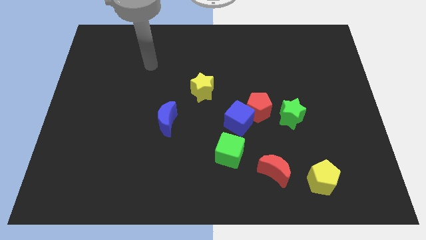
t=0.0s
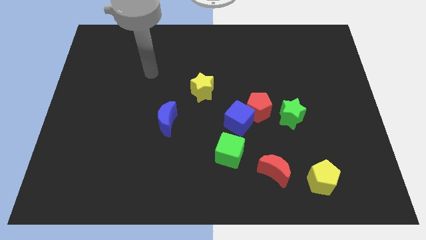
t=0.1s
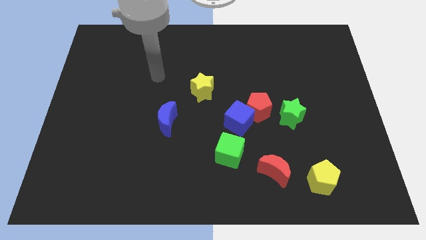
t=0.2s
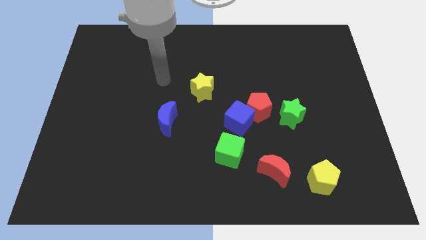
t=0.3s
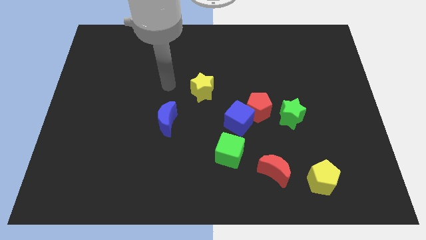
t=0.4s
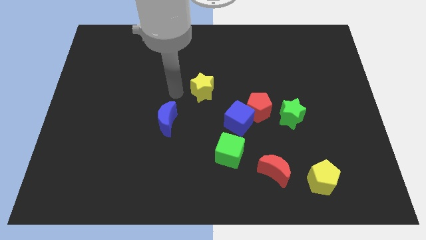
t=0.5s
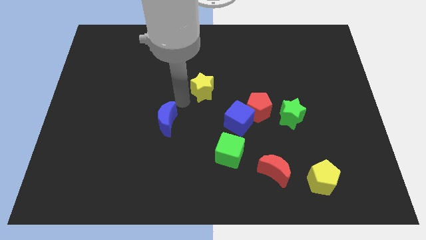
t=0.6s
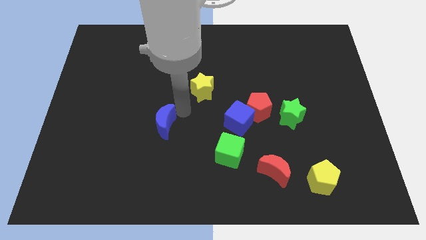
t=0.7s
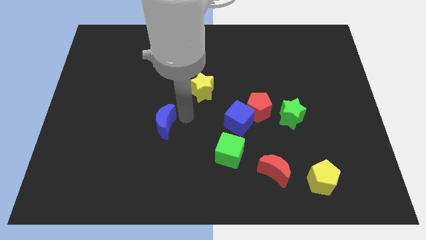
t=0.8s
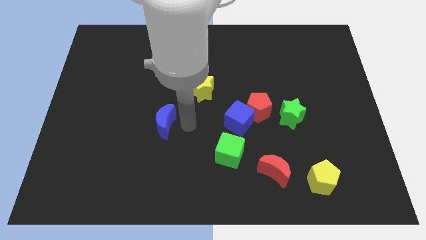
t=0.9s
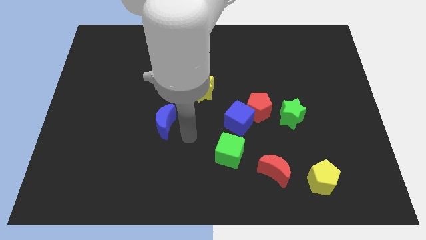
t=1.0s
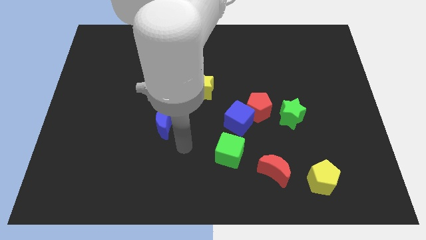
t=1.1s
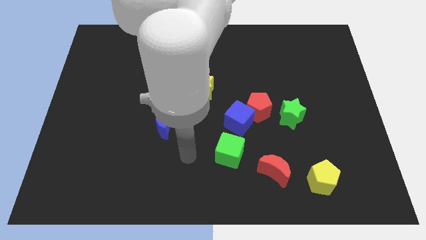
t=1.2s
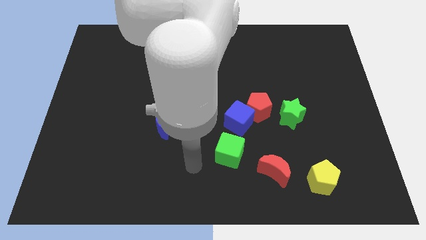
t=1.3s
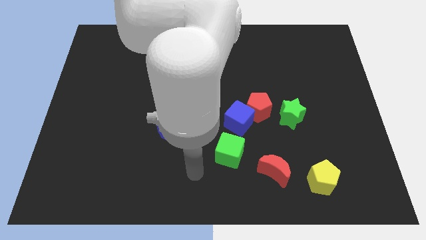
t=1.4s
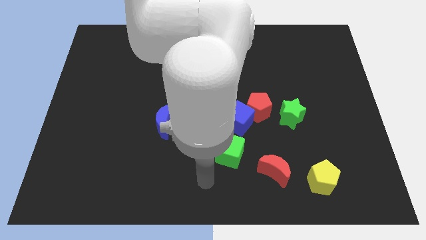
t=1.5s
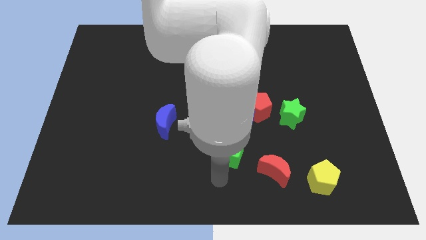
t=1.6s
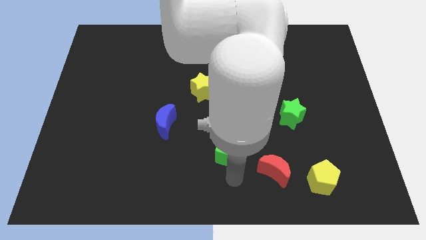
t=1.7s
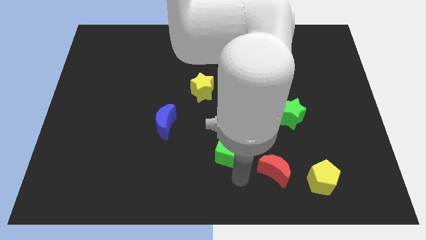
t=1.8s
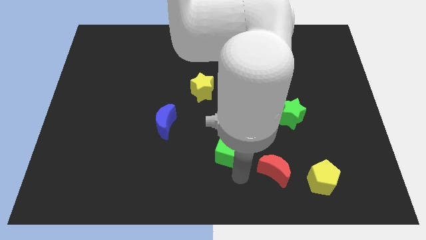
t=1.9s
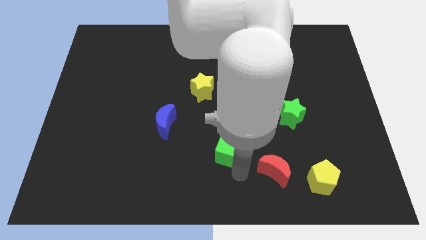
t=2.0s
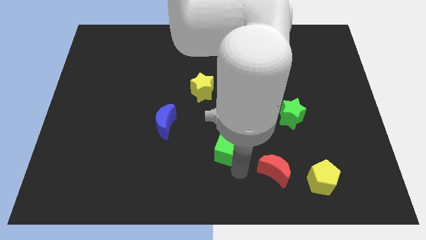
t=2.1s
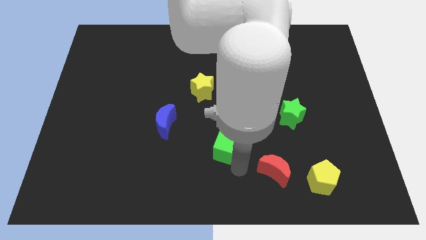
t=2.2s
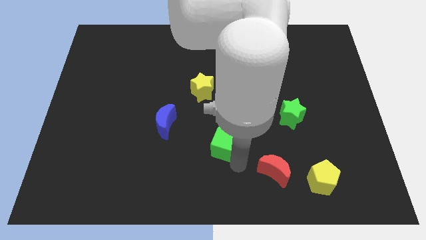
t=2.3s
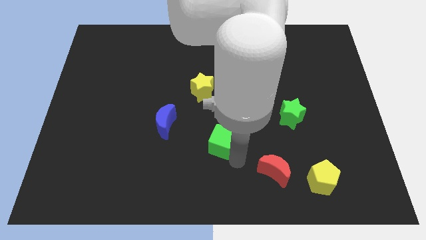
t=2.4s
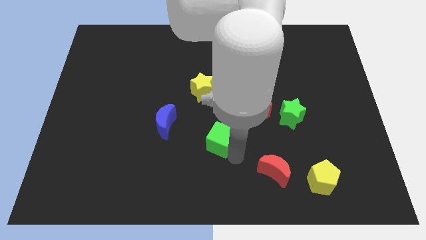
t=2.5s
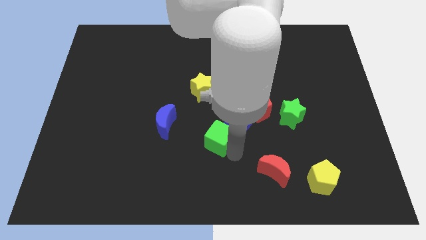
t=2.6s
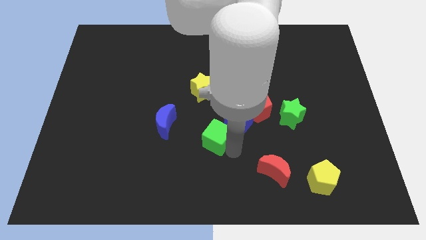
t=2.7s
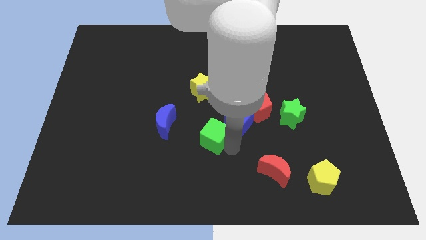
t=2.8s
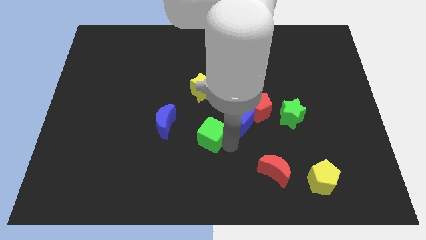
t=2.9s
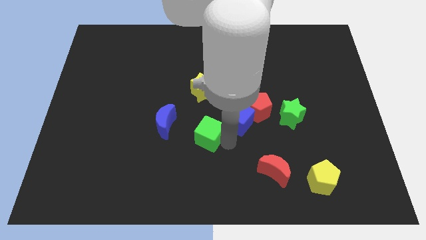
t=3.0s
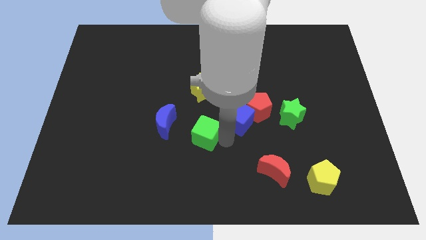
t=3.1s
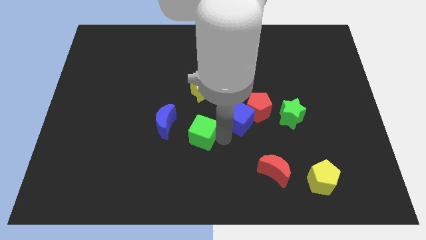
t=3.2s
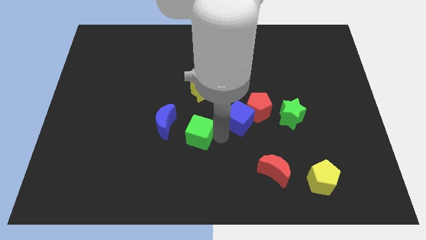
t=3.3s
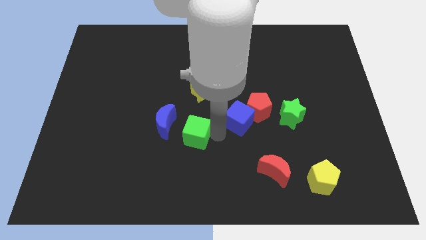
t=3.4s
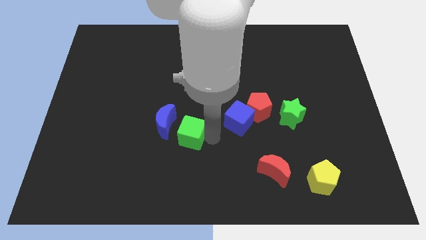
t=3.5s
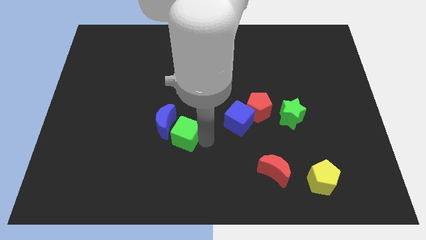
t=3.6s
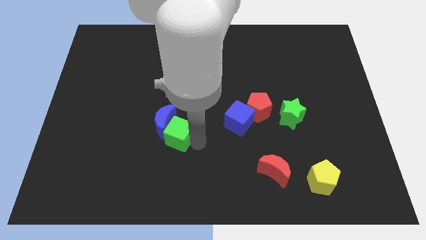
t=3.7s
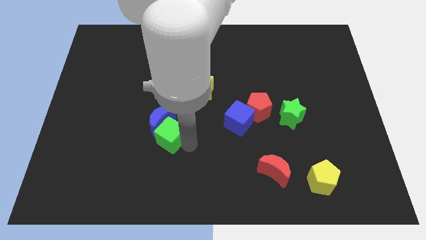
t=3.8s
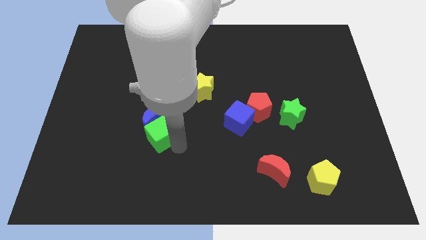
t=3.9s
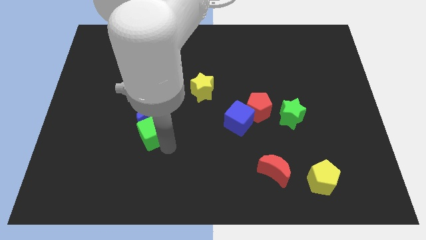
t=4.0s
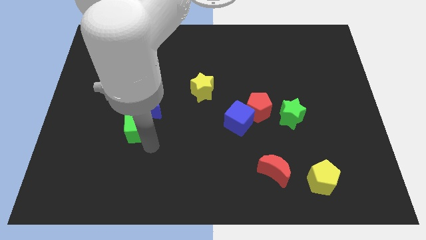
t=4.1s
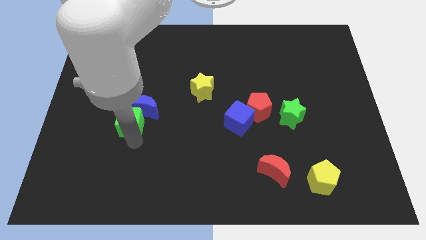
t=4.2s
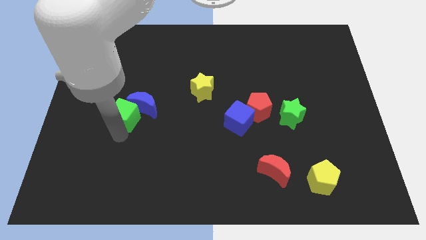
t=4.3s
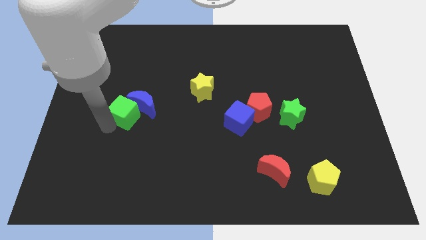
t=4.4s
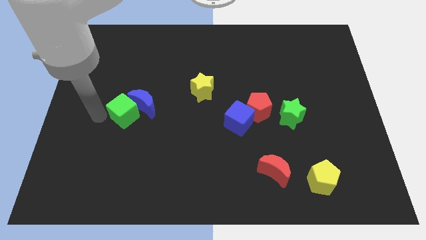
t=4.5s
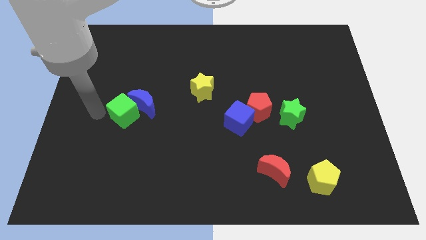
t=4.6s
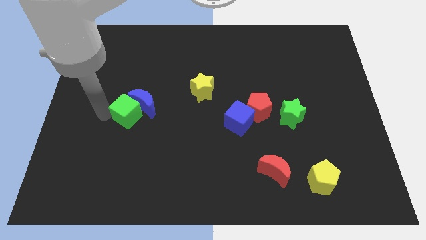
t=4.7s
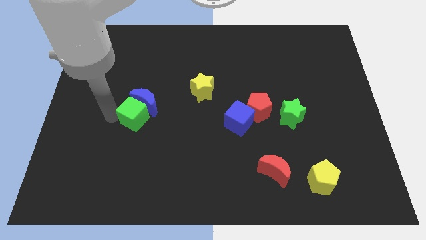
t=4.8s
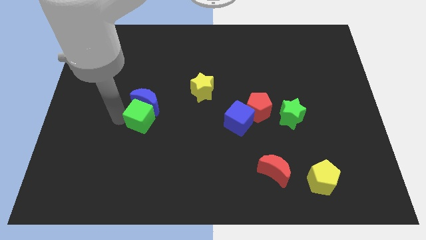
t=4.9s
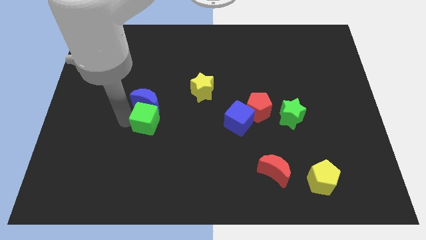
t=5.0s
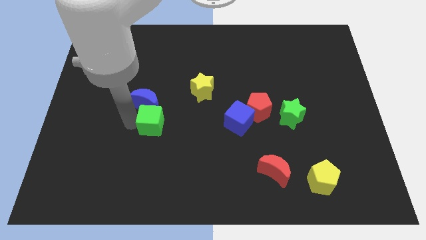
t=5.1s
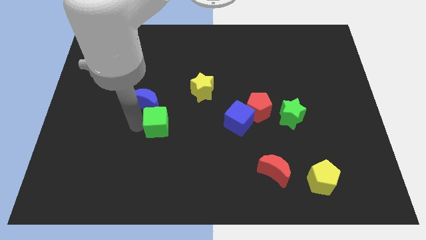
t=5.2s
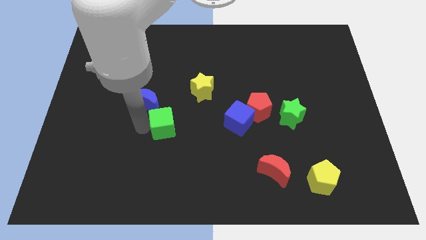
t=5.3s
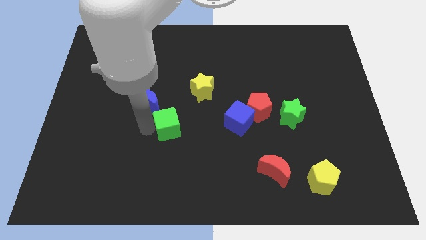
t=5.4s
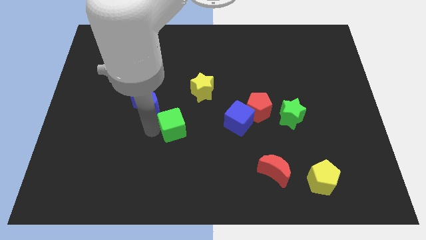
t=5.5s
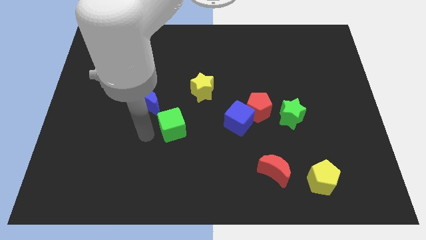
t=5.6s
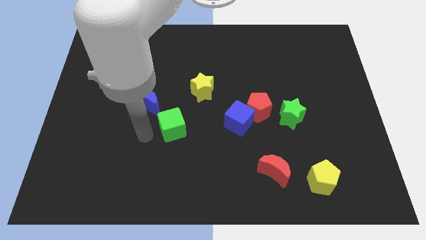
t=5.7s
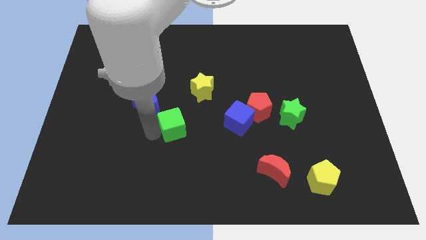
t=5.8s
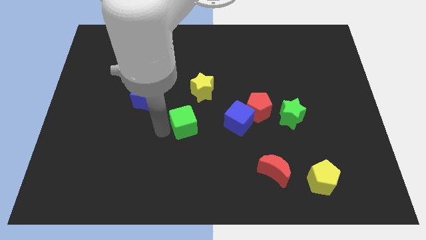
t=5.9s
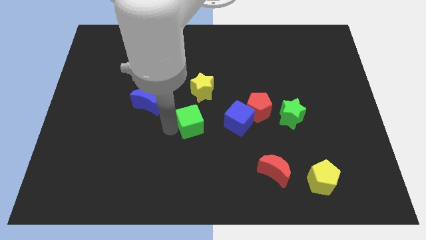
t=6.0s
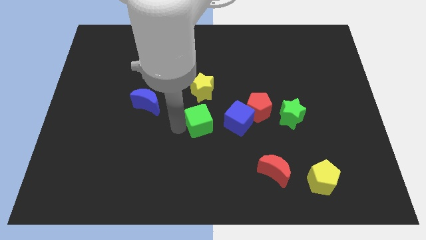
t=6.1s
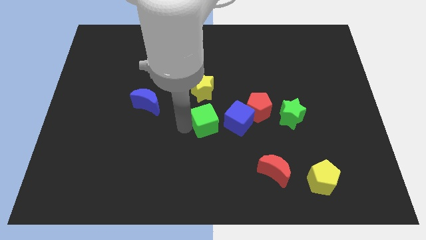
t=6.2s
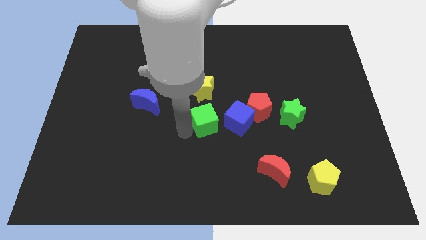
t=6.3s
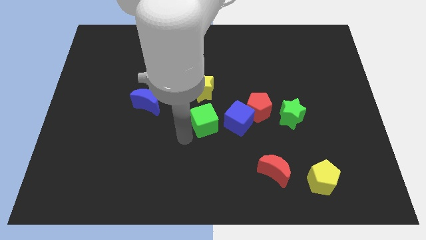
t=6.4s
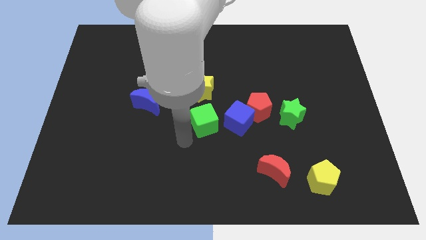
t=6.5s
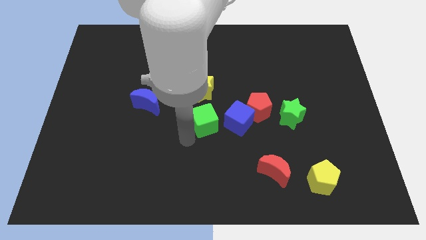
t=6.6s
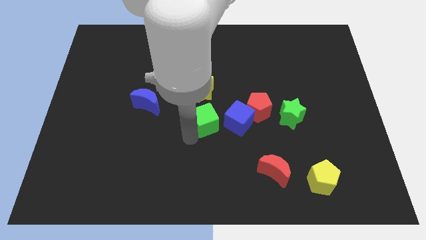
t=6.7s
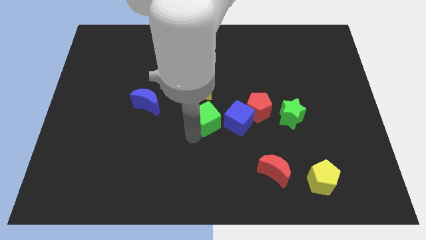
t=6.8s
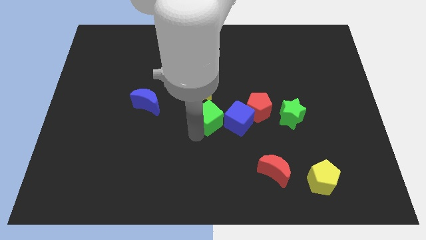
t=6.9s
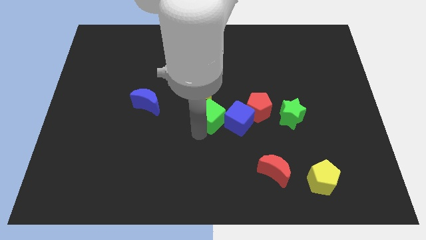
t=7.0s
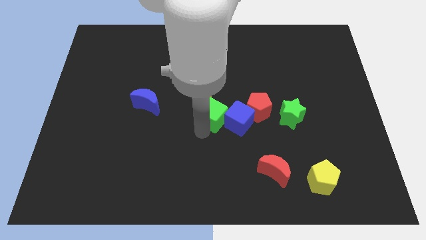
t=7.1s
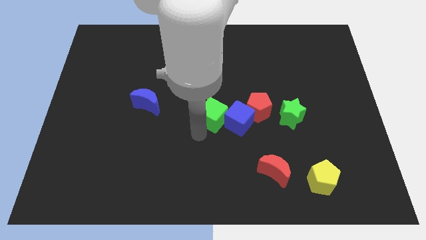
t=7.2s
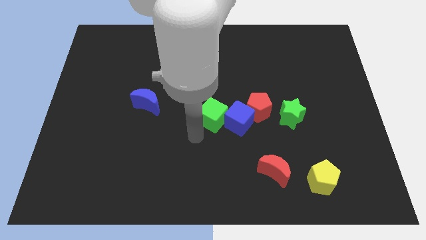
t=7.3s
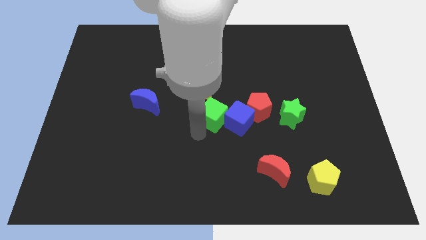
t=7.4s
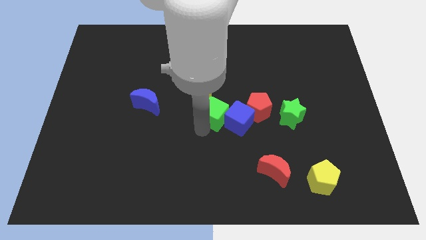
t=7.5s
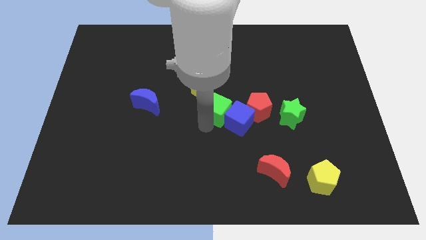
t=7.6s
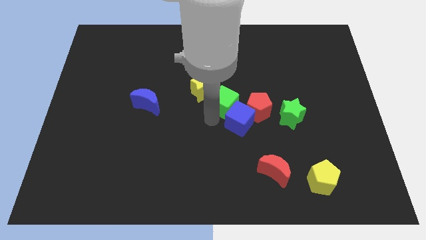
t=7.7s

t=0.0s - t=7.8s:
move the green cube above the blue cube

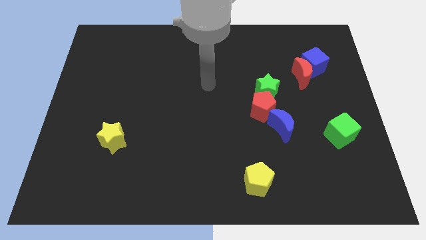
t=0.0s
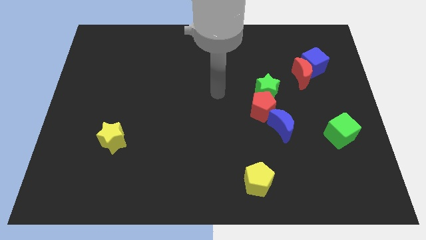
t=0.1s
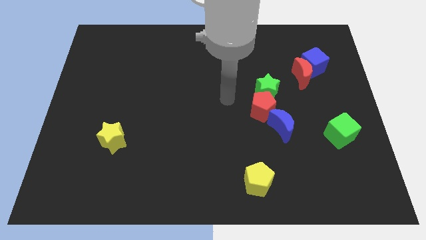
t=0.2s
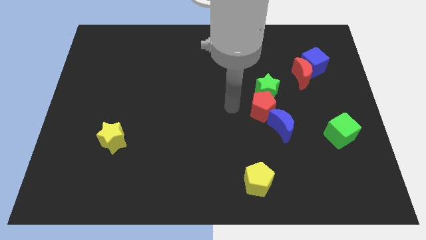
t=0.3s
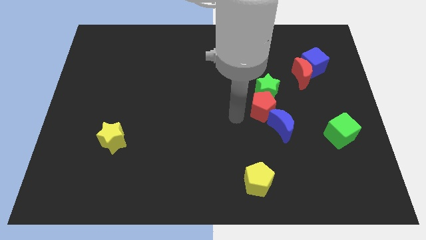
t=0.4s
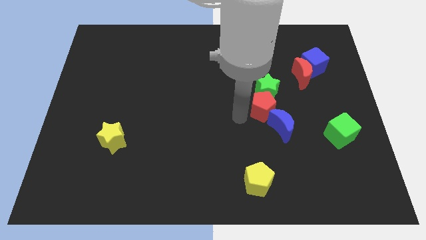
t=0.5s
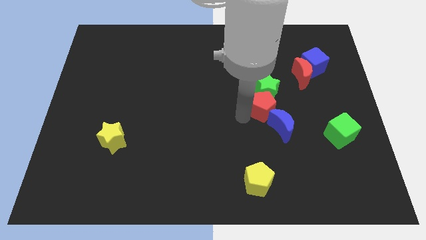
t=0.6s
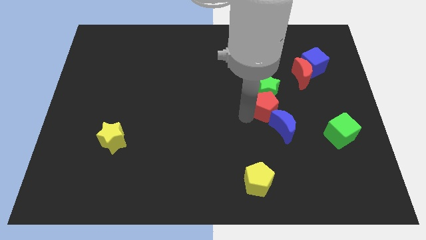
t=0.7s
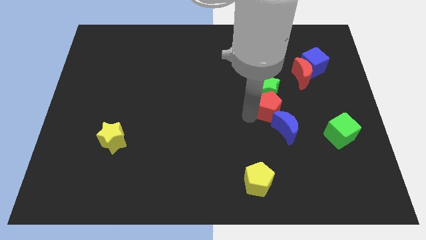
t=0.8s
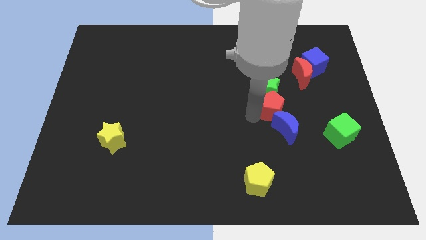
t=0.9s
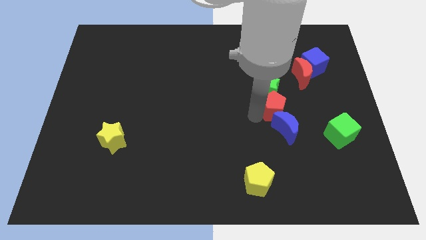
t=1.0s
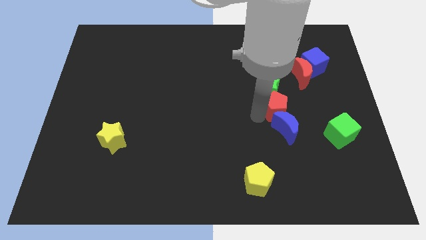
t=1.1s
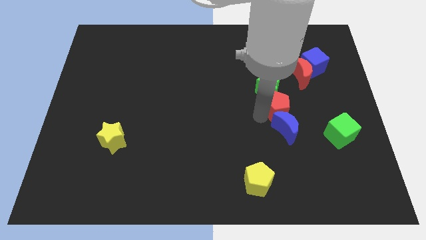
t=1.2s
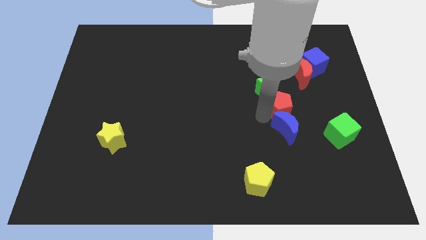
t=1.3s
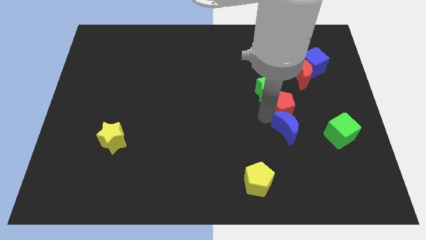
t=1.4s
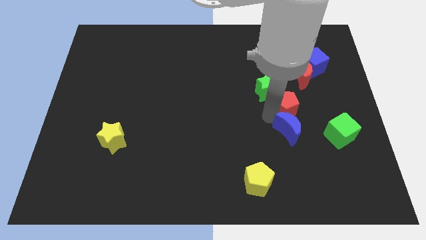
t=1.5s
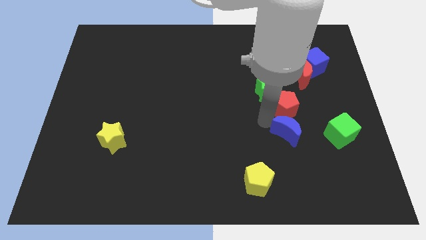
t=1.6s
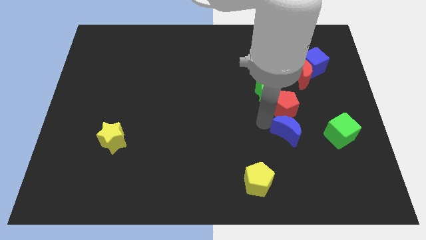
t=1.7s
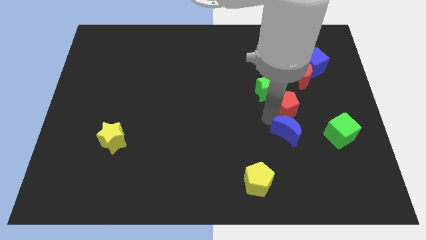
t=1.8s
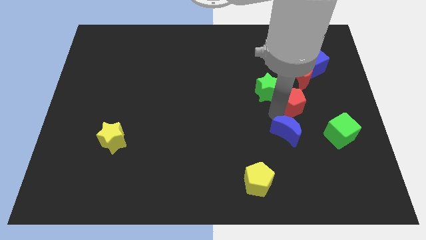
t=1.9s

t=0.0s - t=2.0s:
slide the red pentagon just right of the green star
